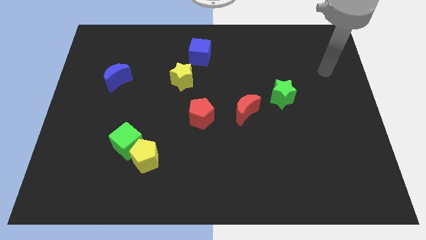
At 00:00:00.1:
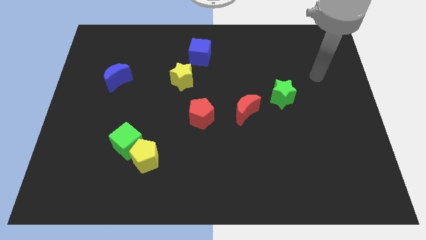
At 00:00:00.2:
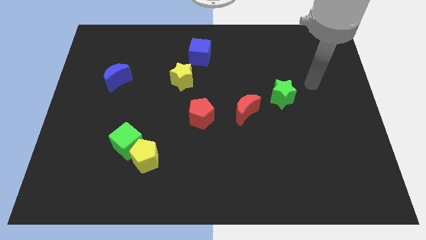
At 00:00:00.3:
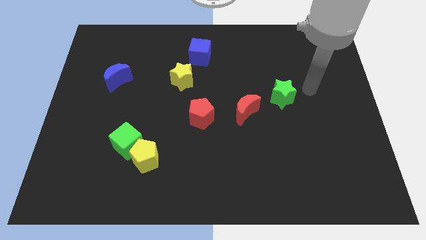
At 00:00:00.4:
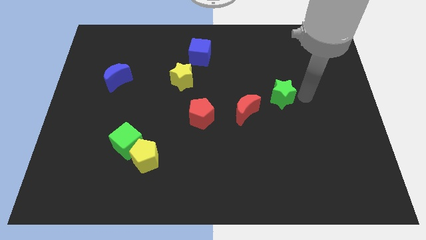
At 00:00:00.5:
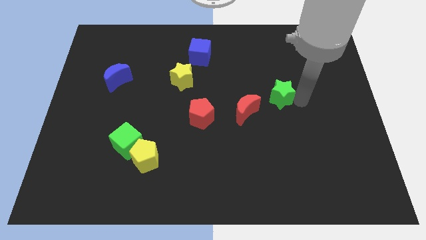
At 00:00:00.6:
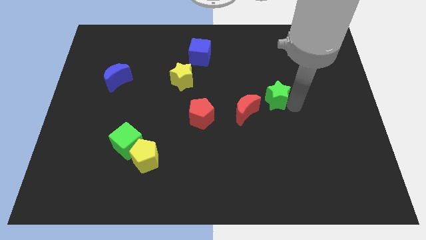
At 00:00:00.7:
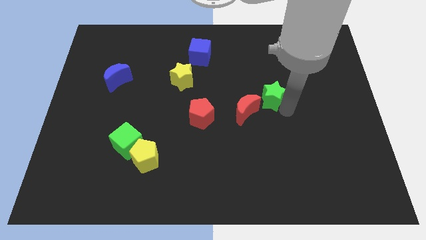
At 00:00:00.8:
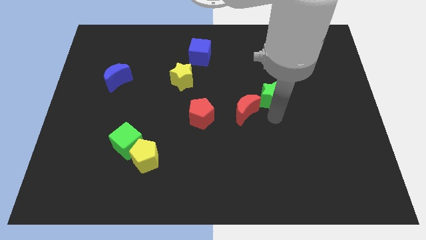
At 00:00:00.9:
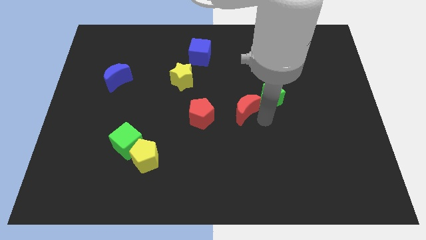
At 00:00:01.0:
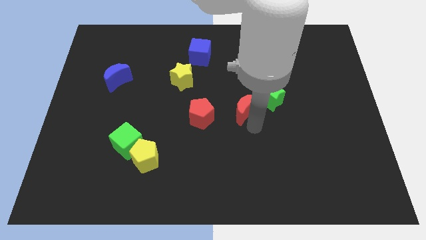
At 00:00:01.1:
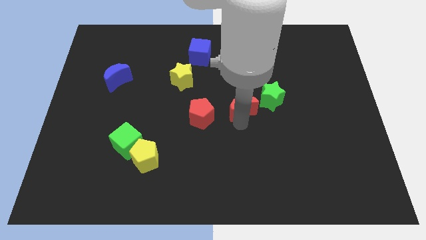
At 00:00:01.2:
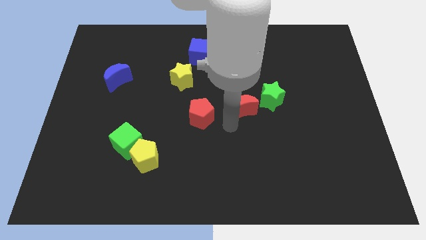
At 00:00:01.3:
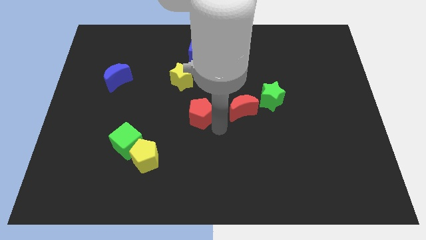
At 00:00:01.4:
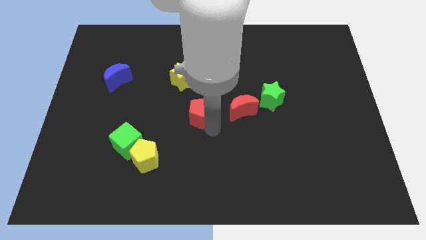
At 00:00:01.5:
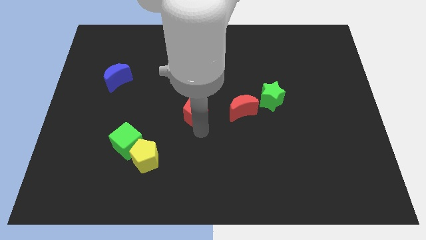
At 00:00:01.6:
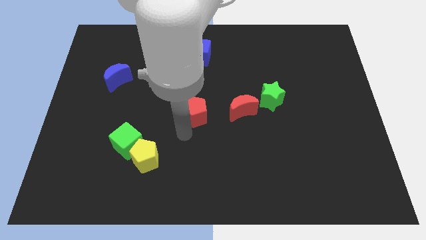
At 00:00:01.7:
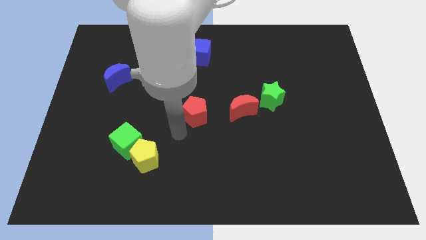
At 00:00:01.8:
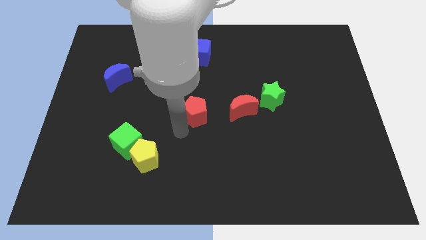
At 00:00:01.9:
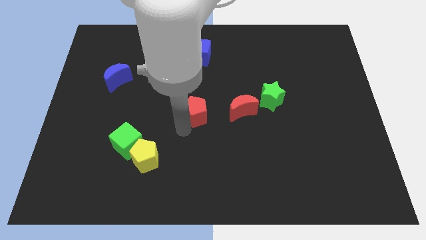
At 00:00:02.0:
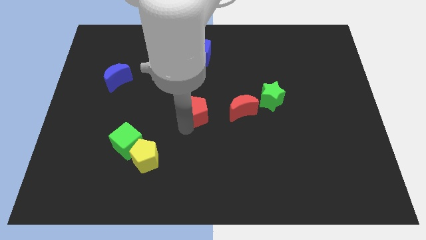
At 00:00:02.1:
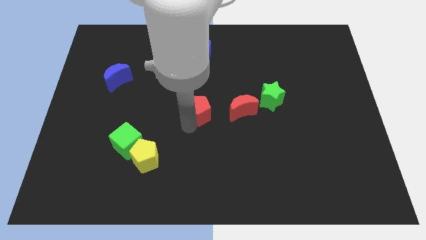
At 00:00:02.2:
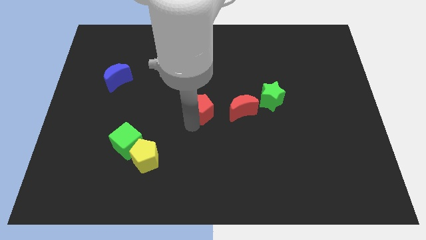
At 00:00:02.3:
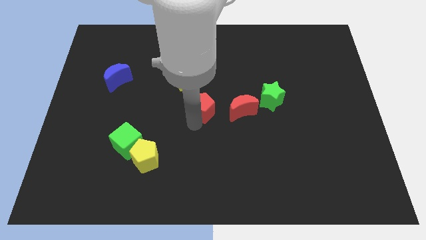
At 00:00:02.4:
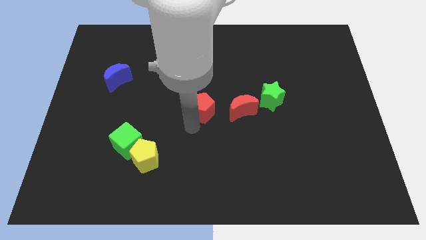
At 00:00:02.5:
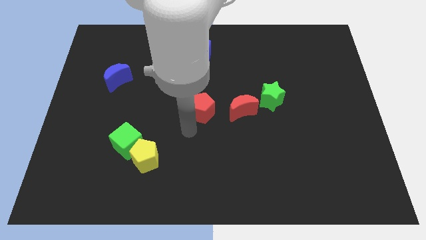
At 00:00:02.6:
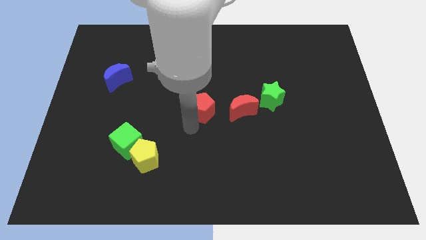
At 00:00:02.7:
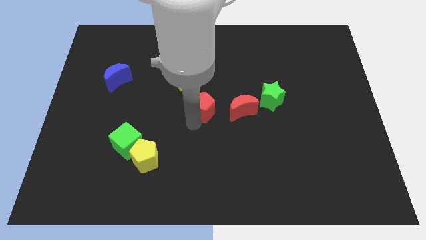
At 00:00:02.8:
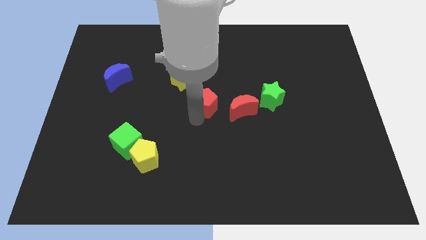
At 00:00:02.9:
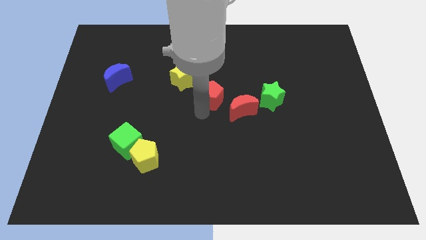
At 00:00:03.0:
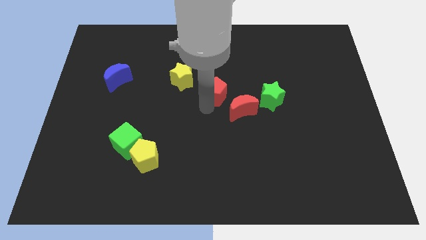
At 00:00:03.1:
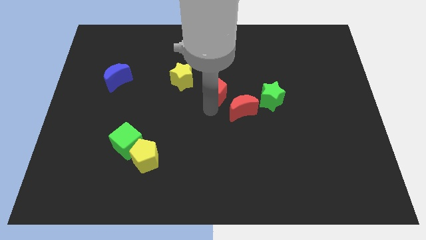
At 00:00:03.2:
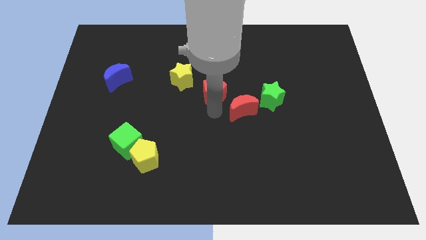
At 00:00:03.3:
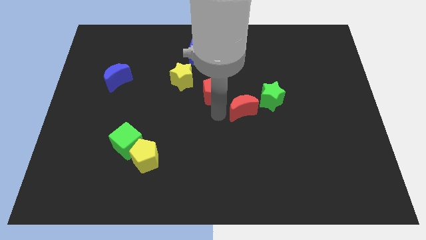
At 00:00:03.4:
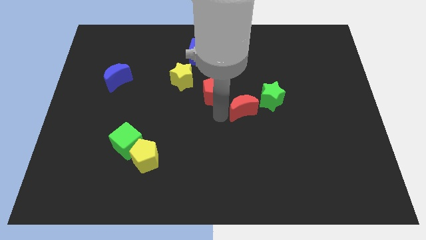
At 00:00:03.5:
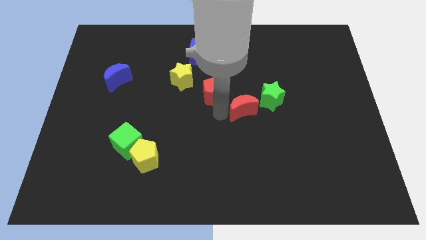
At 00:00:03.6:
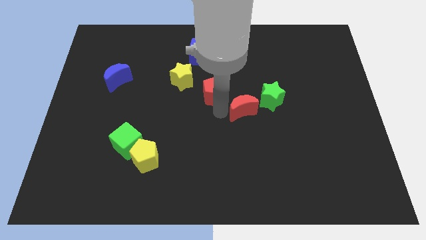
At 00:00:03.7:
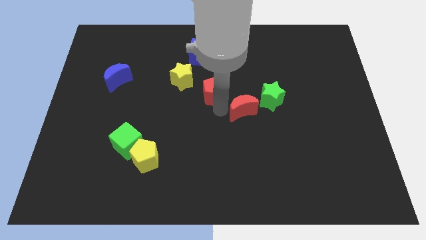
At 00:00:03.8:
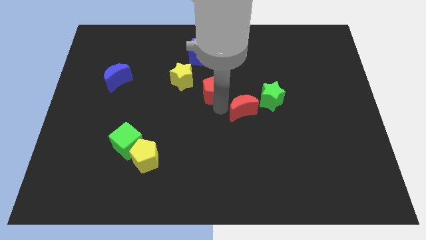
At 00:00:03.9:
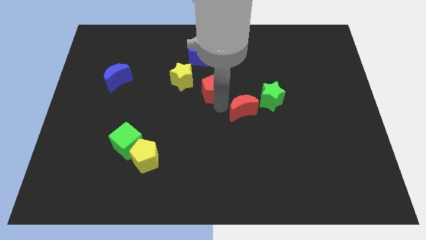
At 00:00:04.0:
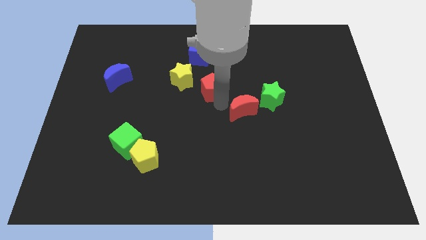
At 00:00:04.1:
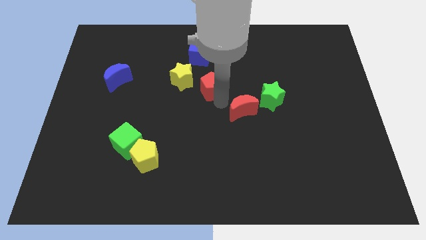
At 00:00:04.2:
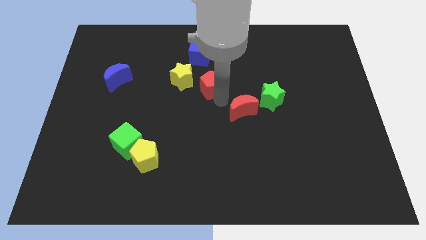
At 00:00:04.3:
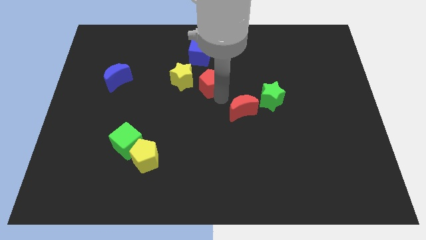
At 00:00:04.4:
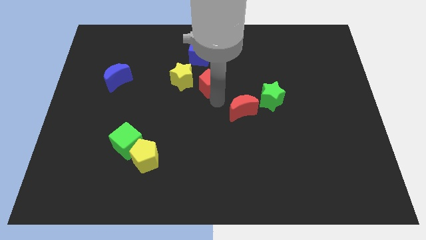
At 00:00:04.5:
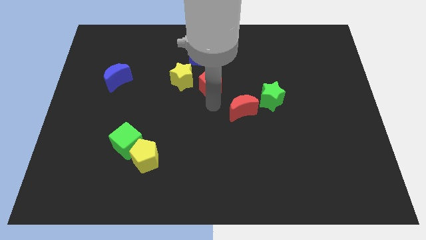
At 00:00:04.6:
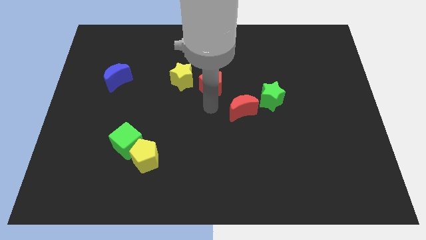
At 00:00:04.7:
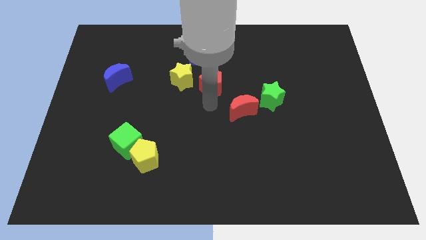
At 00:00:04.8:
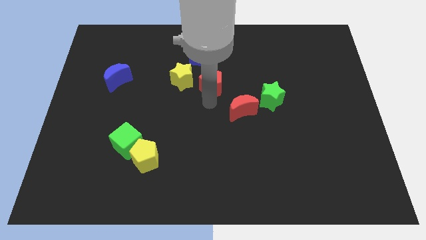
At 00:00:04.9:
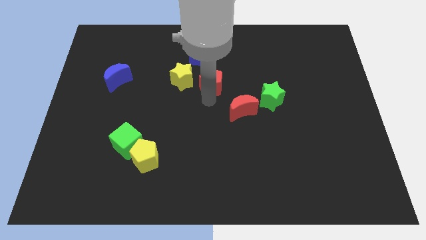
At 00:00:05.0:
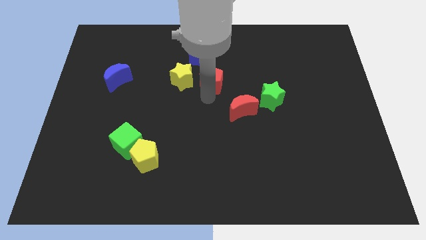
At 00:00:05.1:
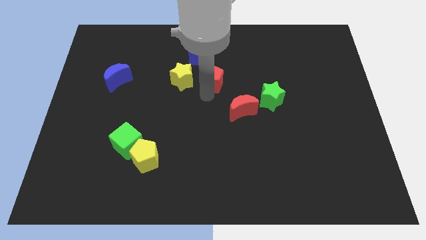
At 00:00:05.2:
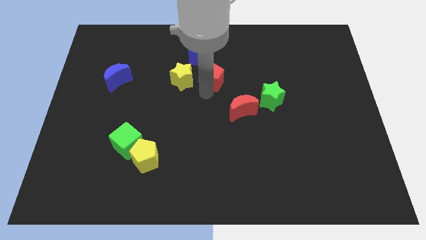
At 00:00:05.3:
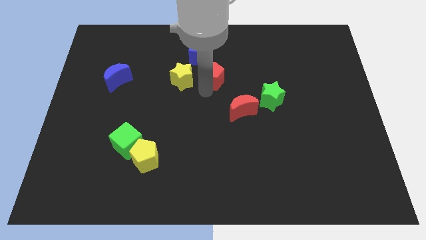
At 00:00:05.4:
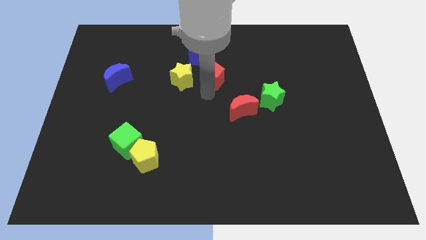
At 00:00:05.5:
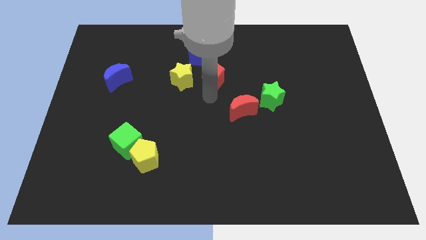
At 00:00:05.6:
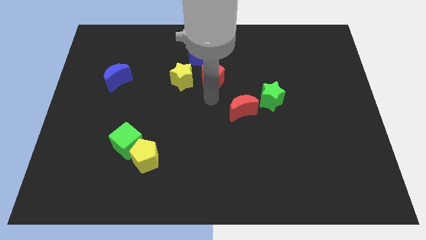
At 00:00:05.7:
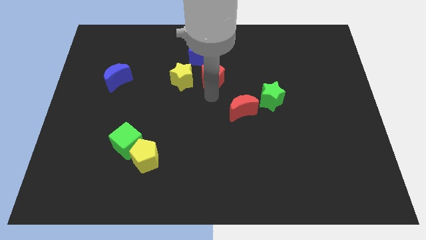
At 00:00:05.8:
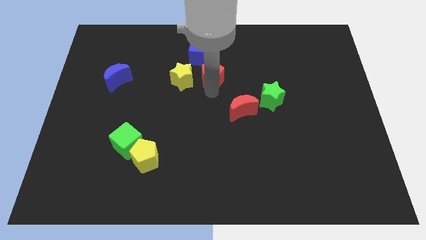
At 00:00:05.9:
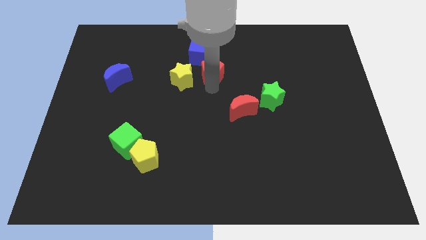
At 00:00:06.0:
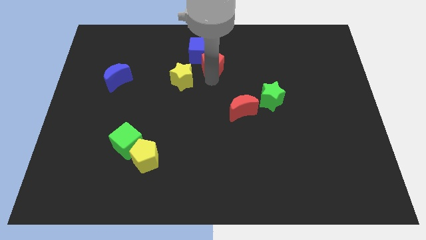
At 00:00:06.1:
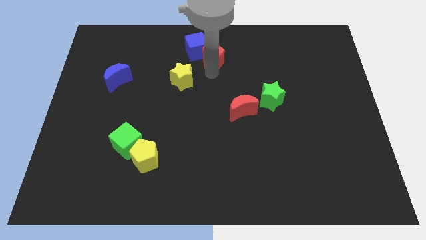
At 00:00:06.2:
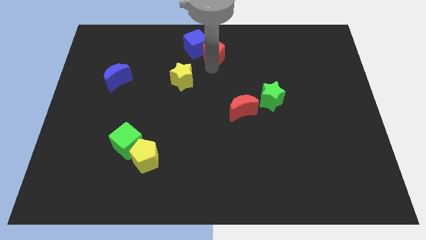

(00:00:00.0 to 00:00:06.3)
push the red pentagon to the towards your base
